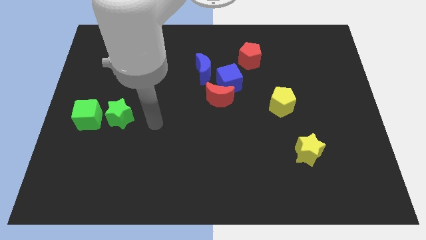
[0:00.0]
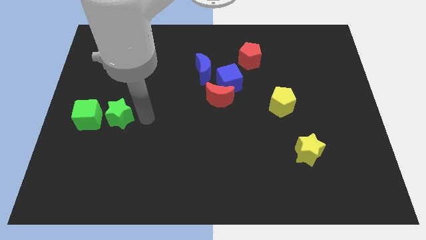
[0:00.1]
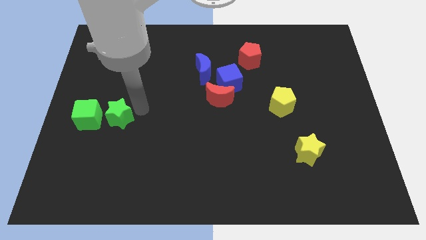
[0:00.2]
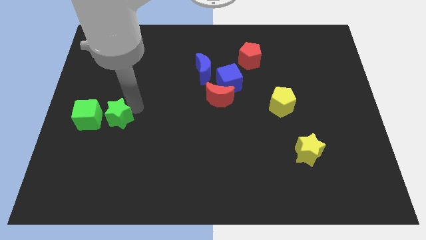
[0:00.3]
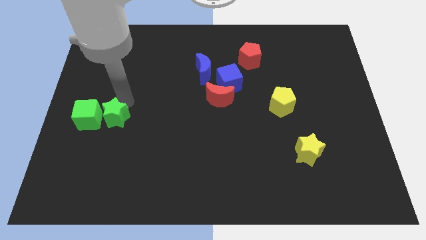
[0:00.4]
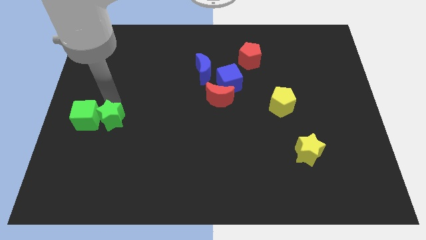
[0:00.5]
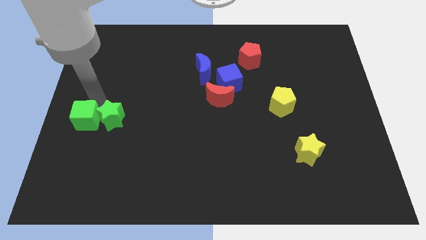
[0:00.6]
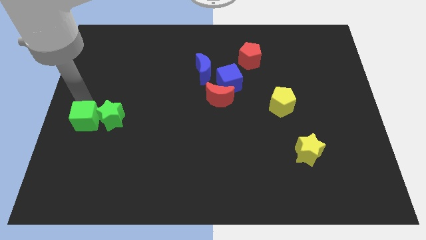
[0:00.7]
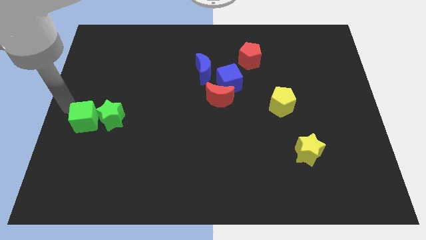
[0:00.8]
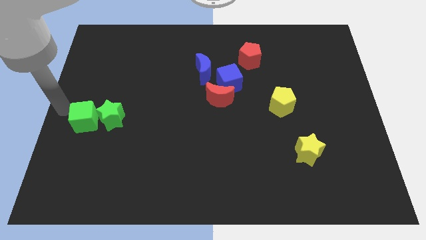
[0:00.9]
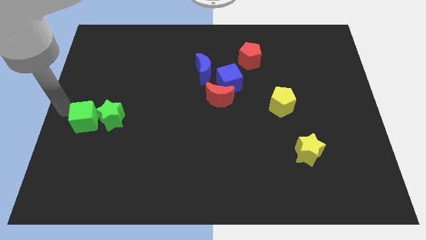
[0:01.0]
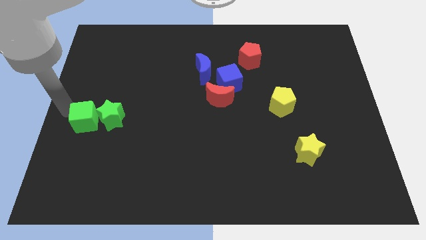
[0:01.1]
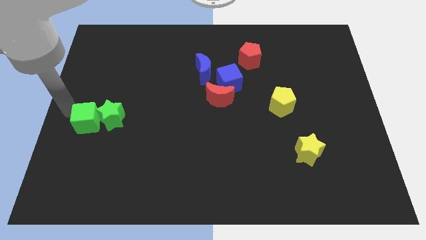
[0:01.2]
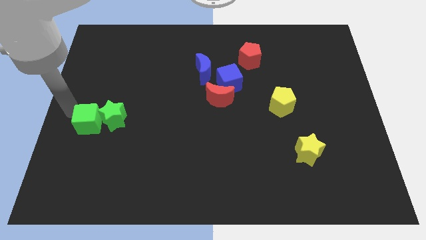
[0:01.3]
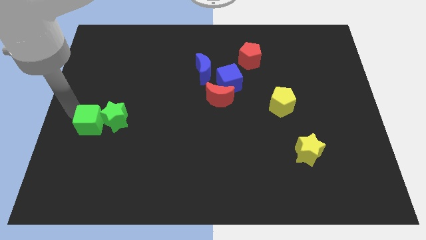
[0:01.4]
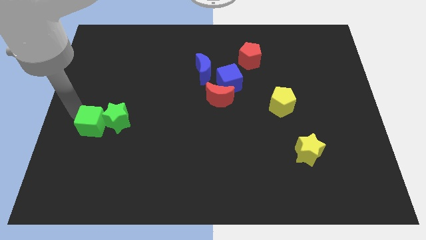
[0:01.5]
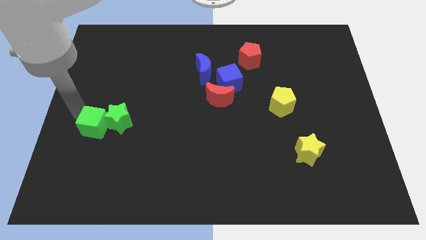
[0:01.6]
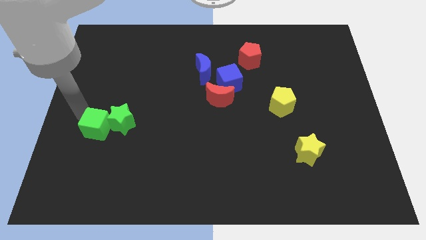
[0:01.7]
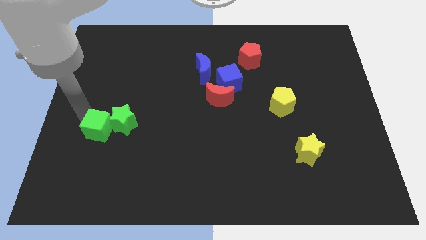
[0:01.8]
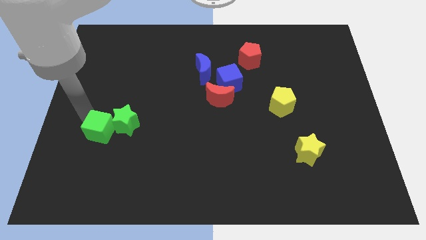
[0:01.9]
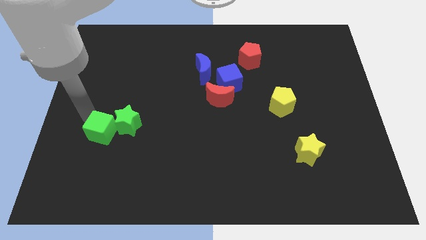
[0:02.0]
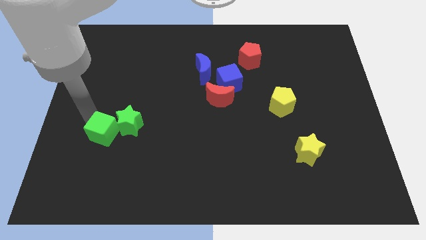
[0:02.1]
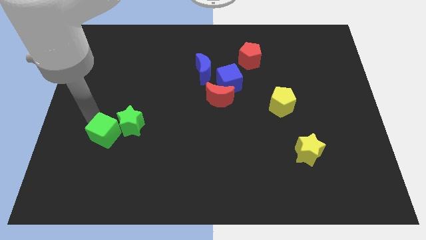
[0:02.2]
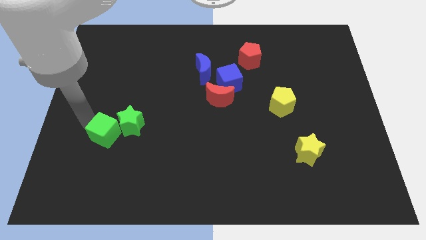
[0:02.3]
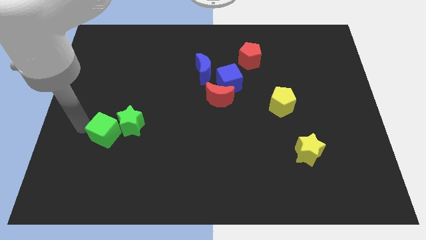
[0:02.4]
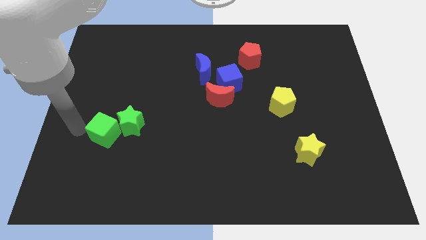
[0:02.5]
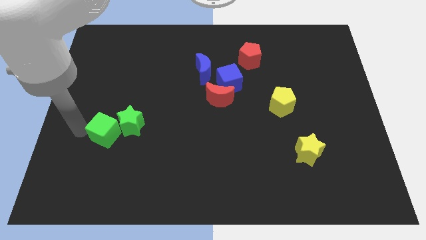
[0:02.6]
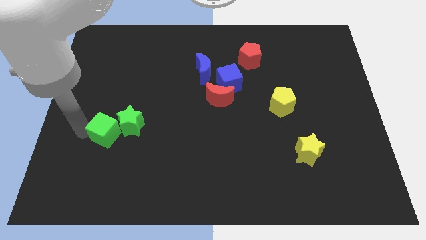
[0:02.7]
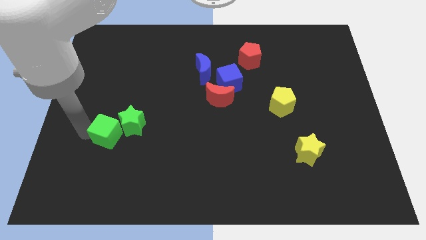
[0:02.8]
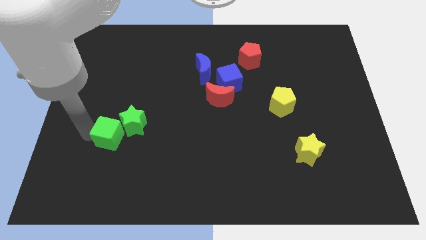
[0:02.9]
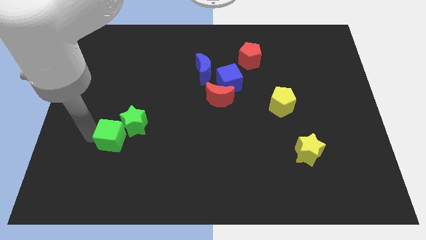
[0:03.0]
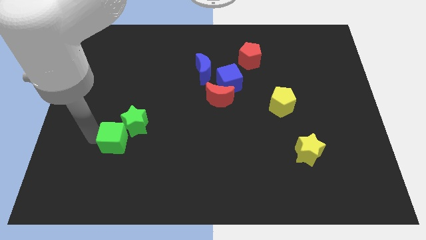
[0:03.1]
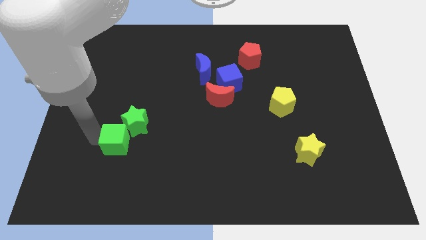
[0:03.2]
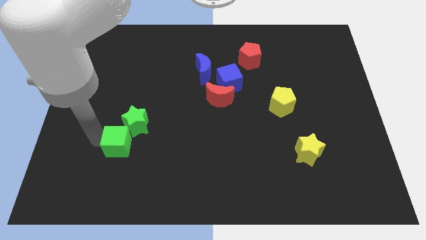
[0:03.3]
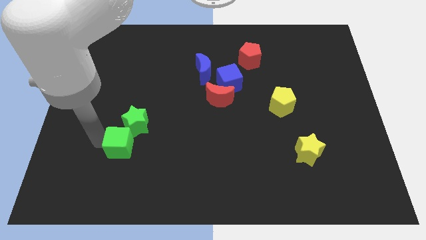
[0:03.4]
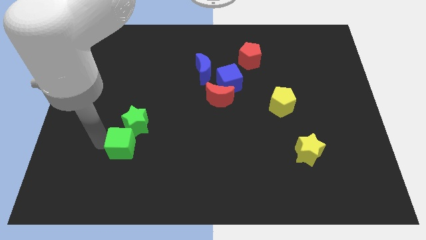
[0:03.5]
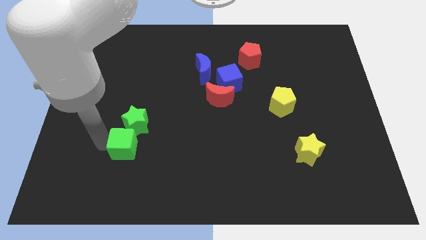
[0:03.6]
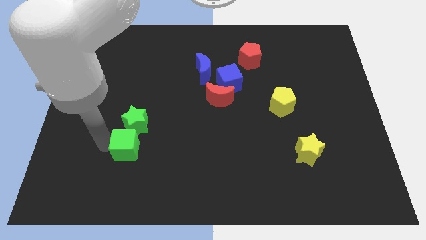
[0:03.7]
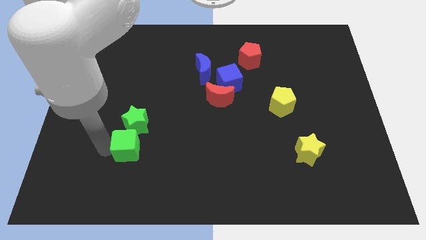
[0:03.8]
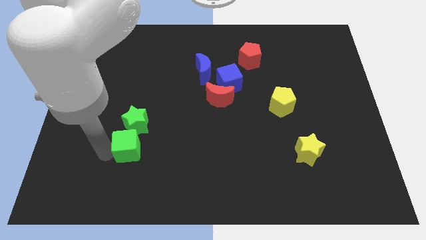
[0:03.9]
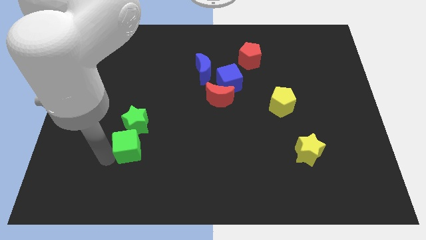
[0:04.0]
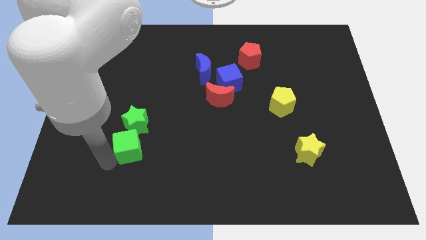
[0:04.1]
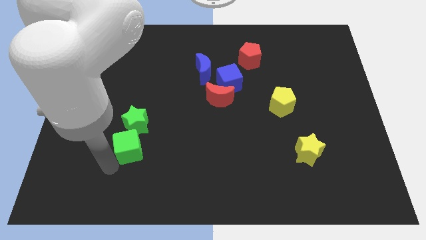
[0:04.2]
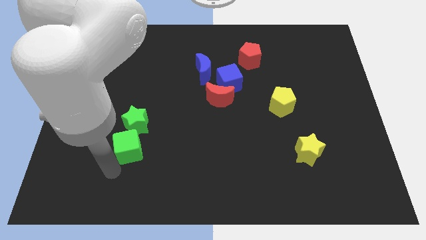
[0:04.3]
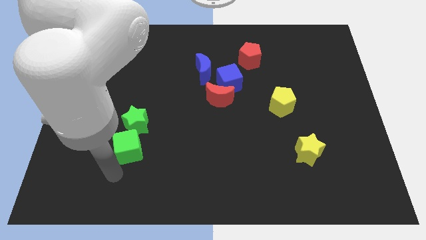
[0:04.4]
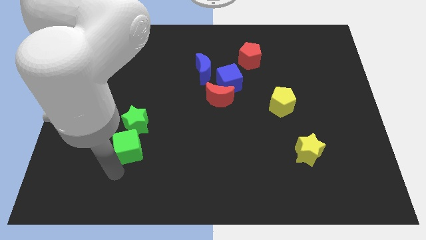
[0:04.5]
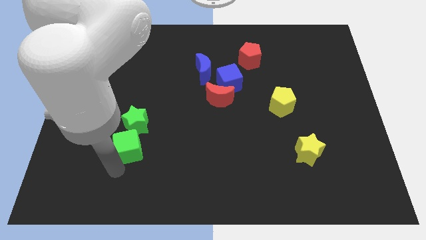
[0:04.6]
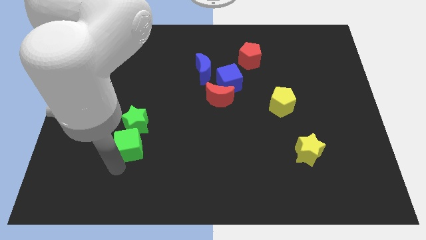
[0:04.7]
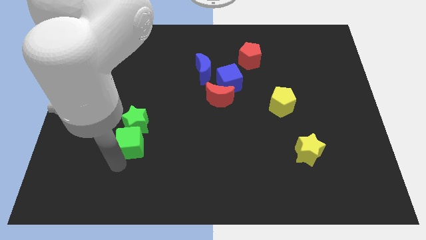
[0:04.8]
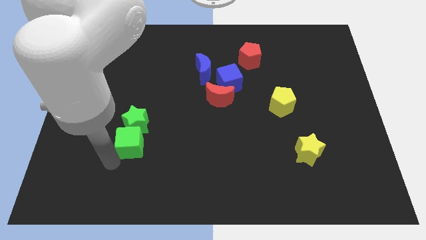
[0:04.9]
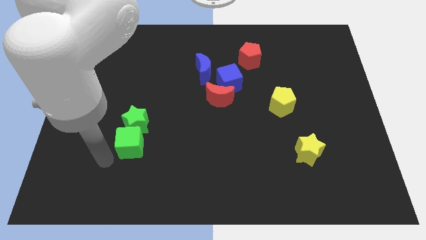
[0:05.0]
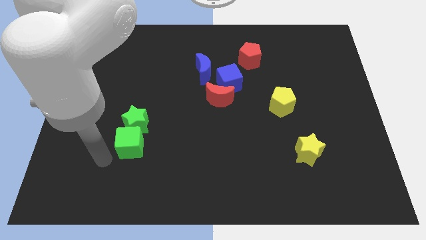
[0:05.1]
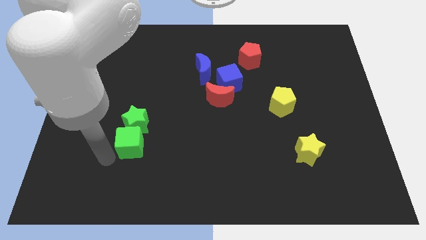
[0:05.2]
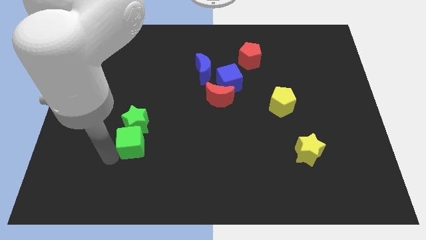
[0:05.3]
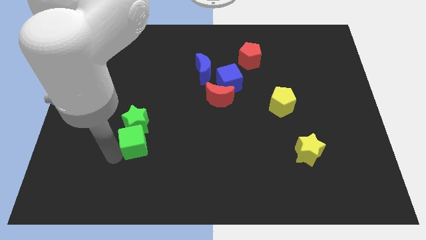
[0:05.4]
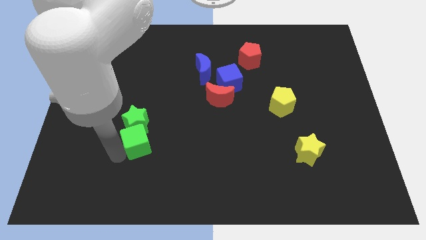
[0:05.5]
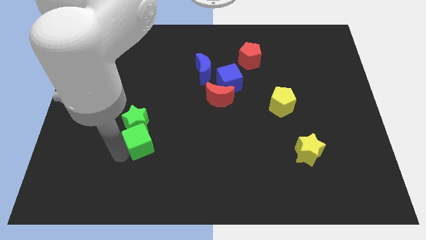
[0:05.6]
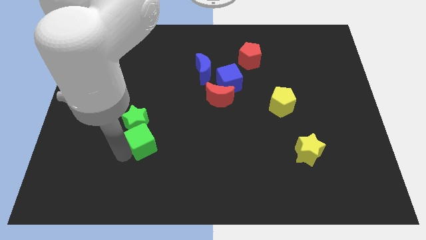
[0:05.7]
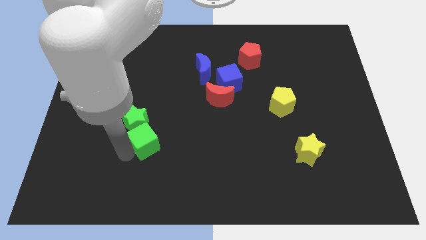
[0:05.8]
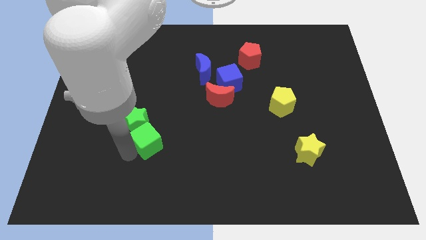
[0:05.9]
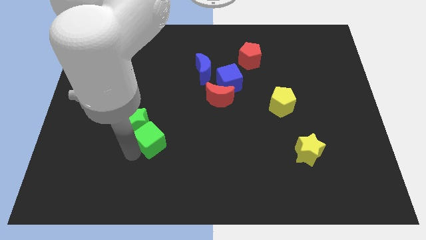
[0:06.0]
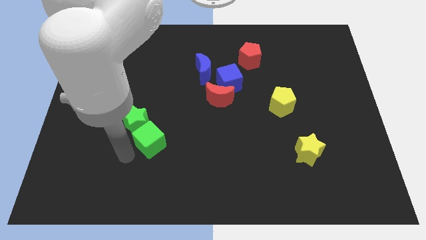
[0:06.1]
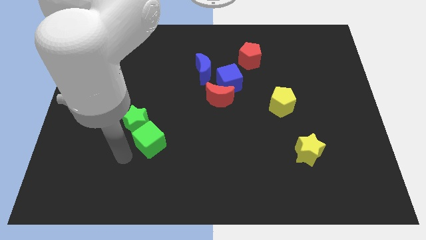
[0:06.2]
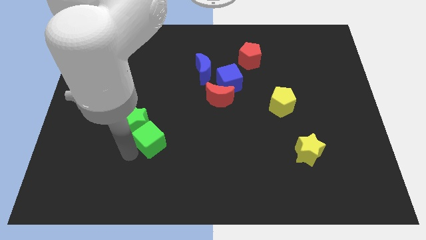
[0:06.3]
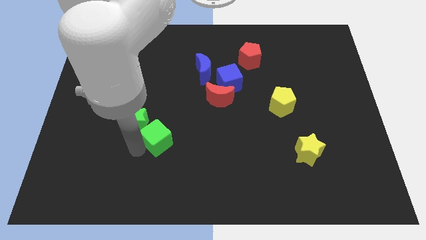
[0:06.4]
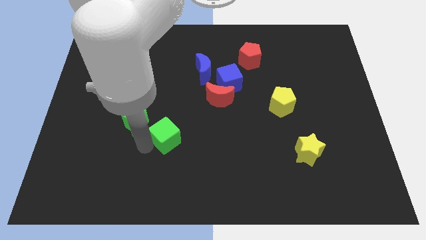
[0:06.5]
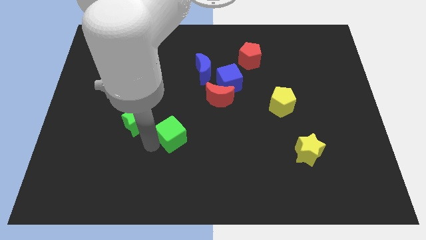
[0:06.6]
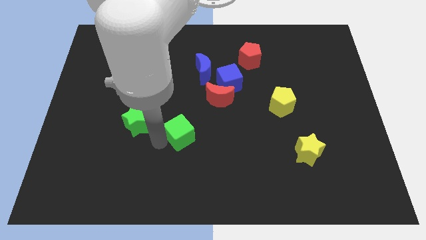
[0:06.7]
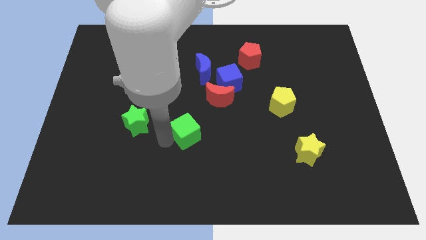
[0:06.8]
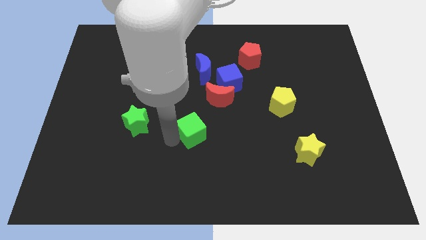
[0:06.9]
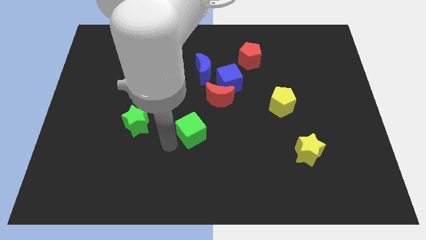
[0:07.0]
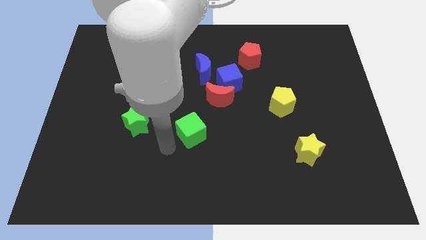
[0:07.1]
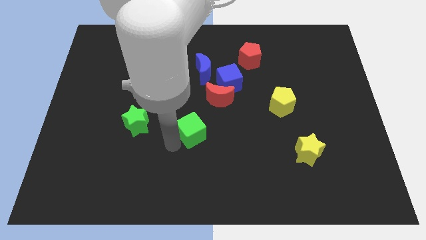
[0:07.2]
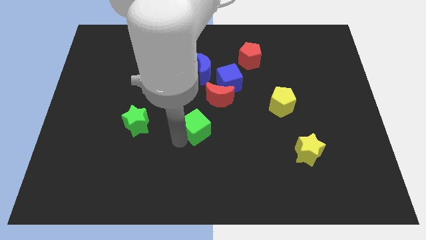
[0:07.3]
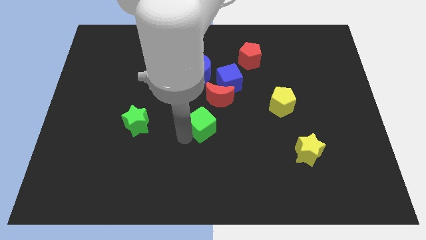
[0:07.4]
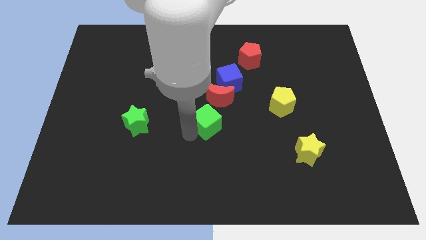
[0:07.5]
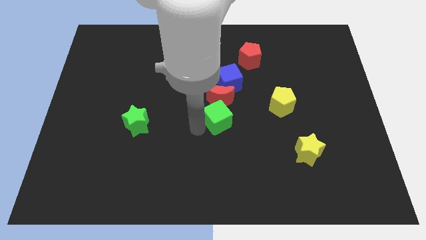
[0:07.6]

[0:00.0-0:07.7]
slide the green cube diagonally down and to the right of the red moon
